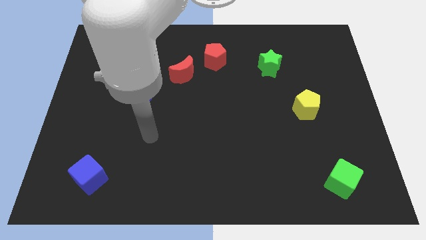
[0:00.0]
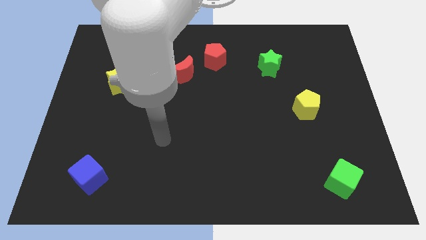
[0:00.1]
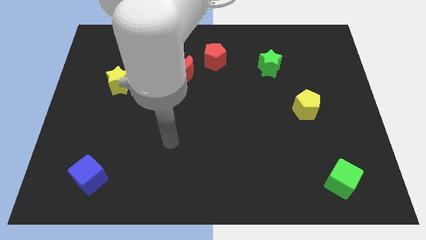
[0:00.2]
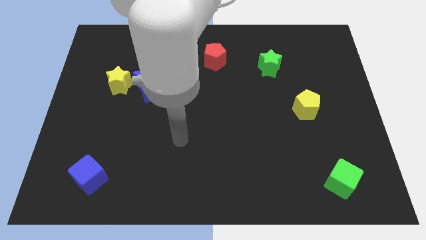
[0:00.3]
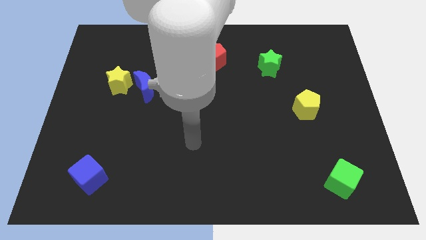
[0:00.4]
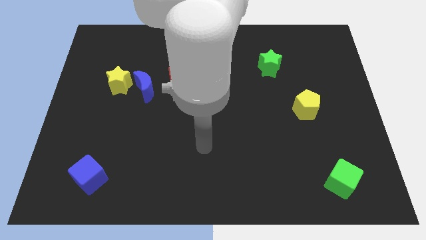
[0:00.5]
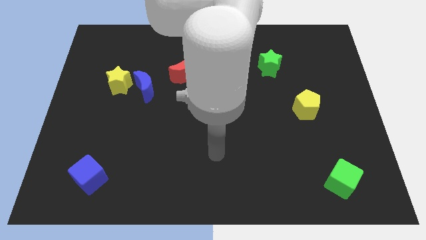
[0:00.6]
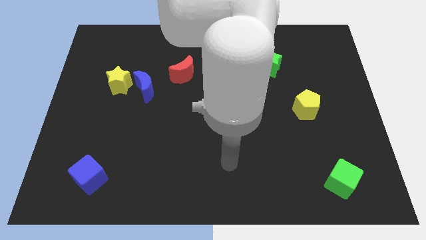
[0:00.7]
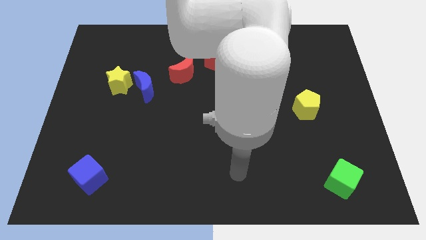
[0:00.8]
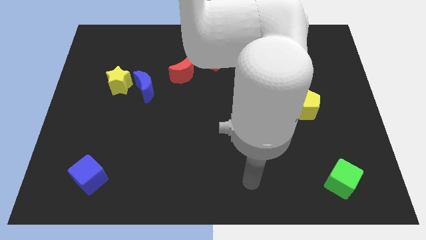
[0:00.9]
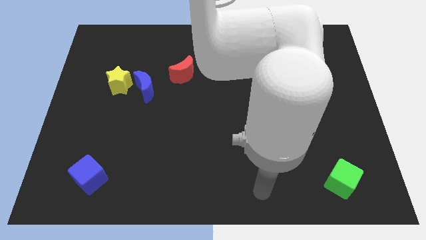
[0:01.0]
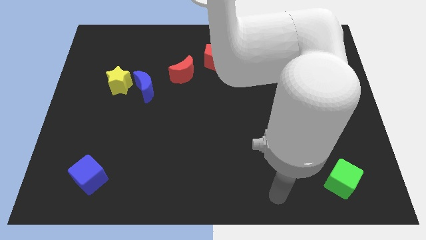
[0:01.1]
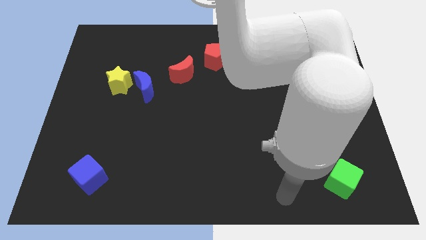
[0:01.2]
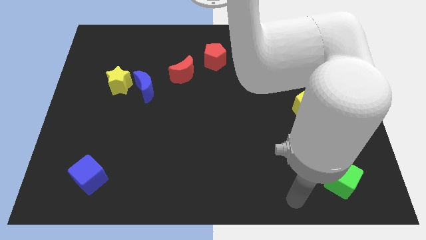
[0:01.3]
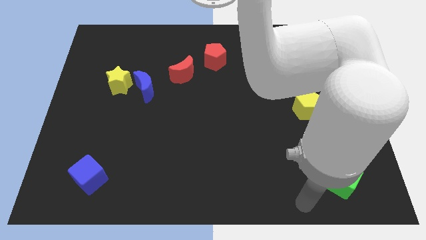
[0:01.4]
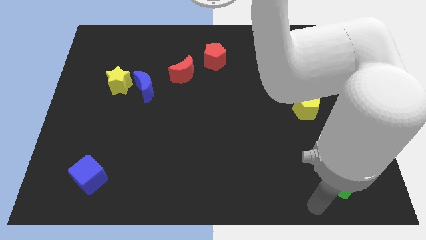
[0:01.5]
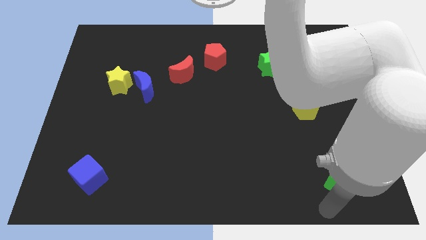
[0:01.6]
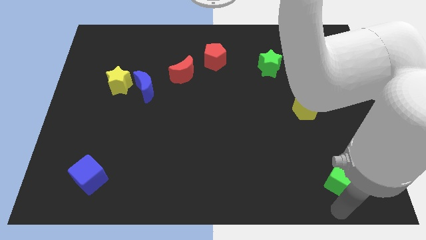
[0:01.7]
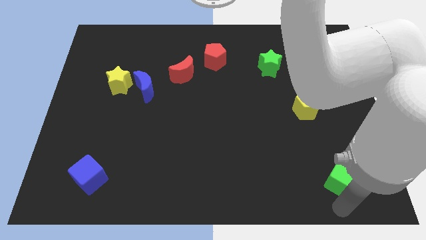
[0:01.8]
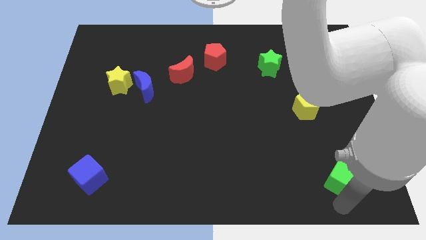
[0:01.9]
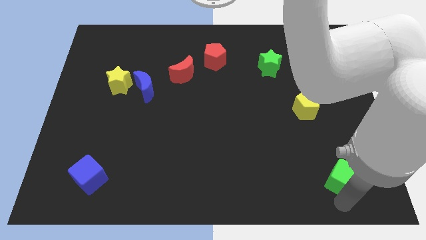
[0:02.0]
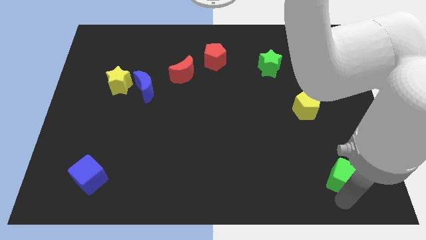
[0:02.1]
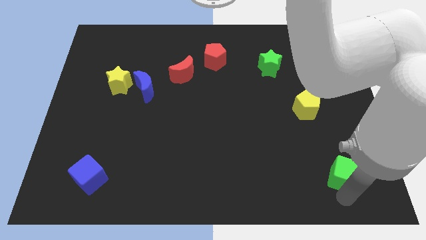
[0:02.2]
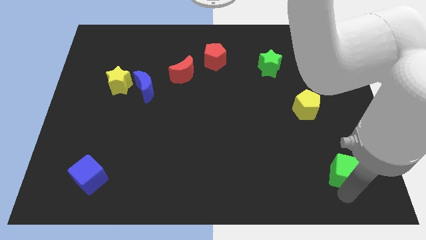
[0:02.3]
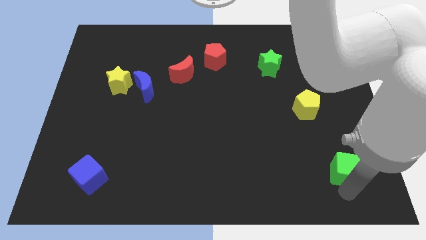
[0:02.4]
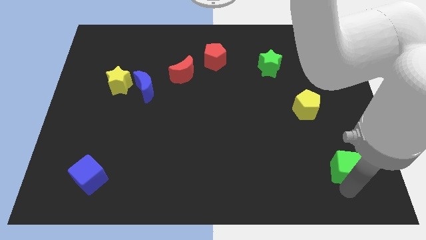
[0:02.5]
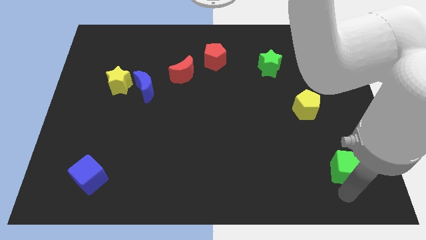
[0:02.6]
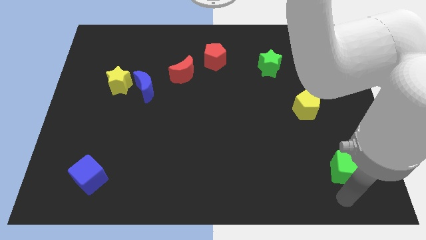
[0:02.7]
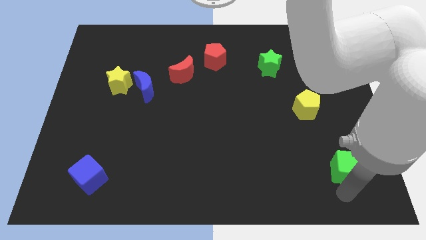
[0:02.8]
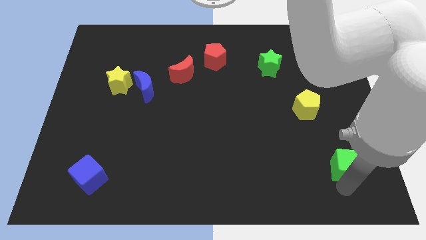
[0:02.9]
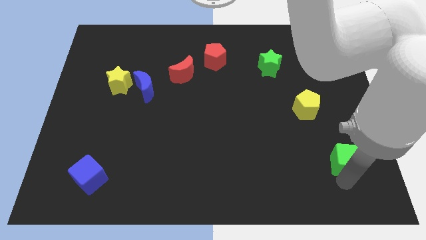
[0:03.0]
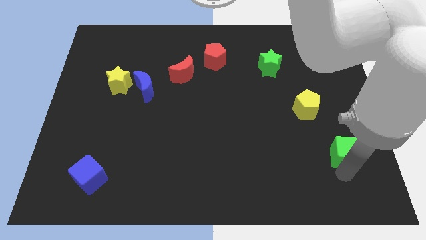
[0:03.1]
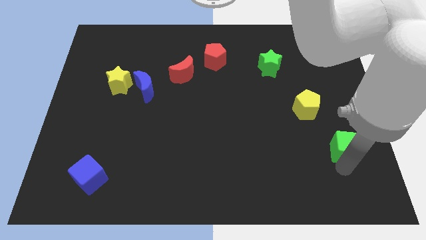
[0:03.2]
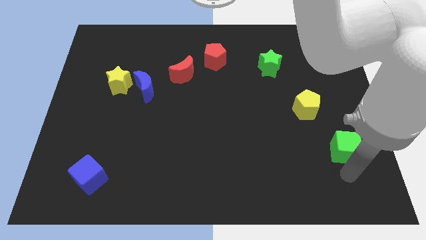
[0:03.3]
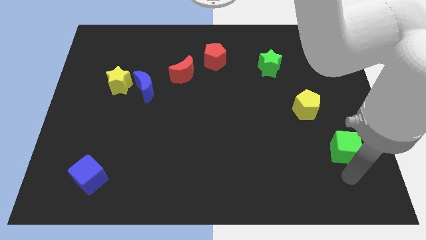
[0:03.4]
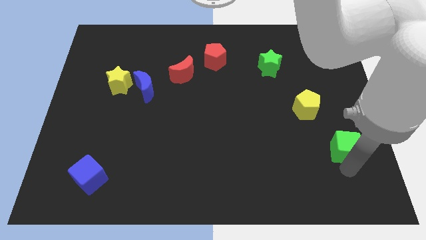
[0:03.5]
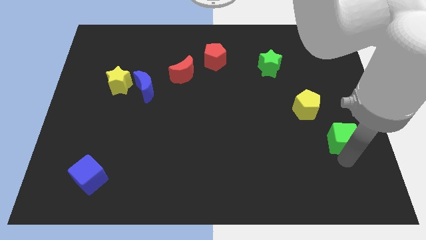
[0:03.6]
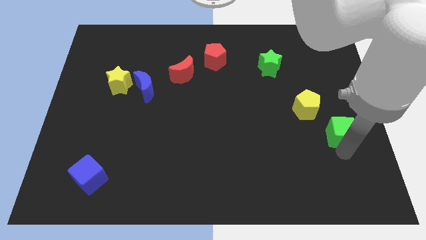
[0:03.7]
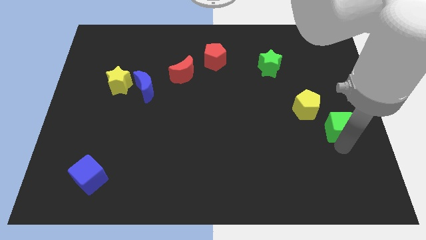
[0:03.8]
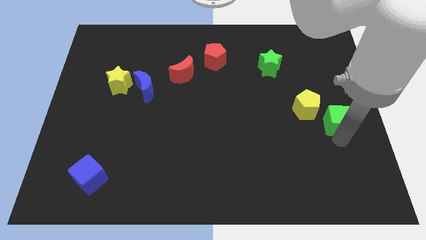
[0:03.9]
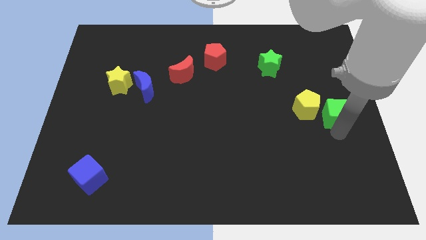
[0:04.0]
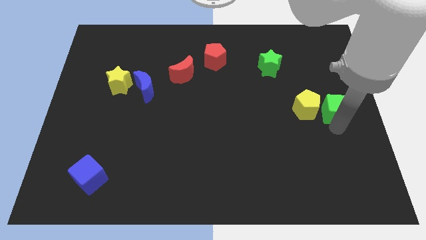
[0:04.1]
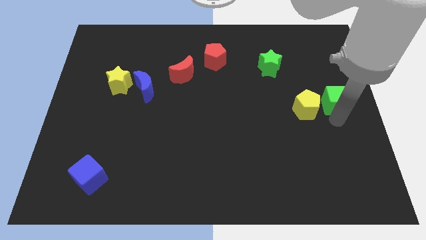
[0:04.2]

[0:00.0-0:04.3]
push the green cube up

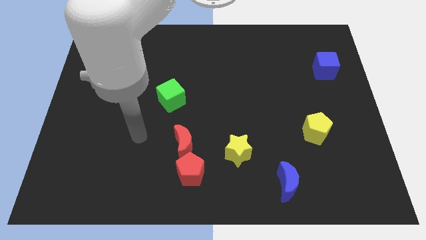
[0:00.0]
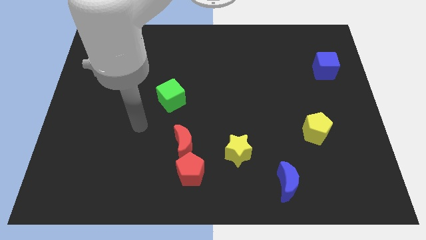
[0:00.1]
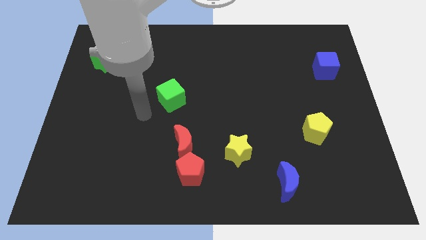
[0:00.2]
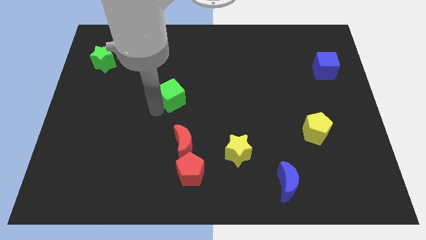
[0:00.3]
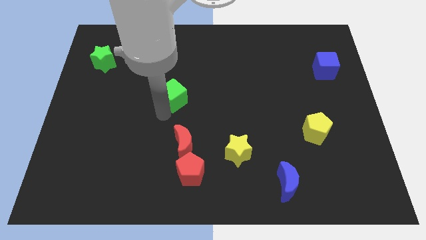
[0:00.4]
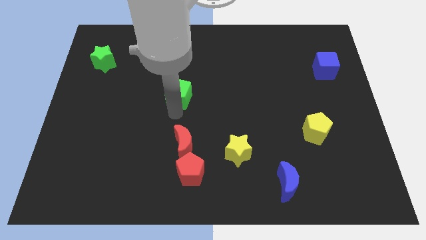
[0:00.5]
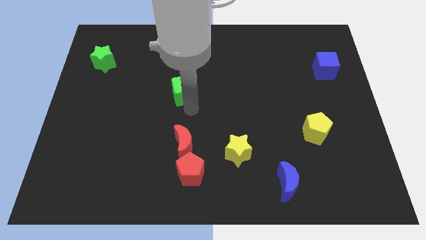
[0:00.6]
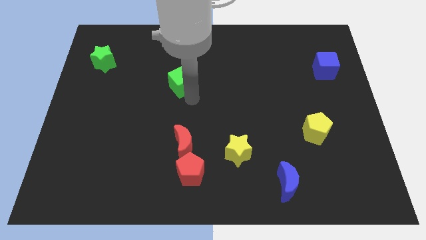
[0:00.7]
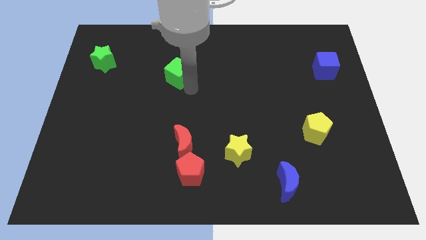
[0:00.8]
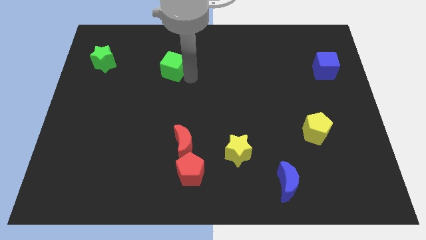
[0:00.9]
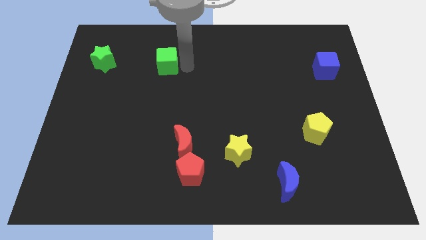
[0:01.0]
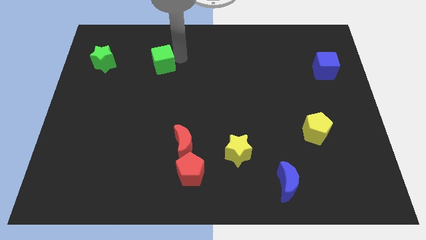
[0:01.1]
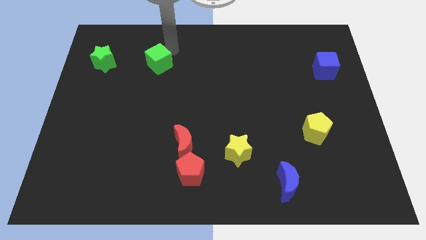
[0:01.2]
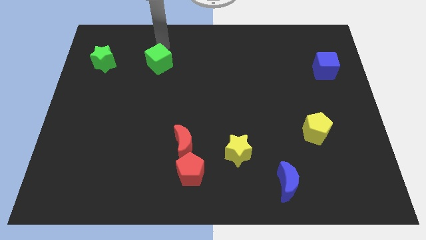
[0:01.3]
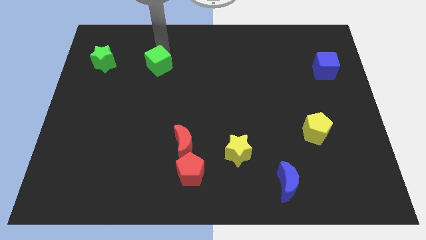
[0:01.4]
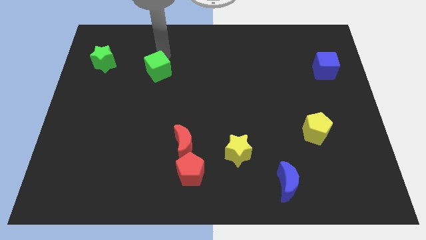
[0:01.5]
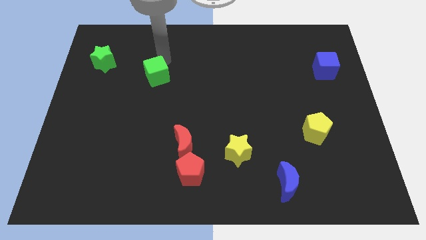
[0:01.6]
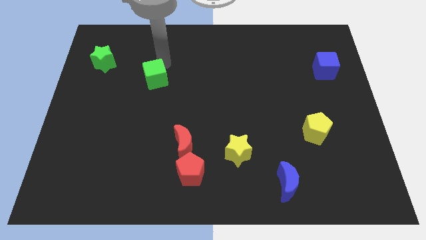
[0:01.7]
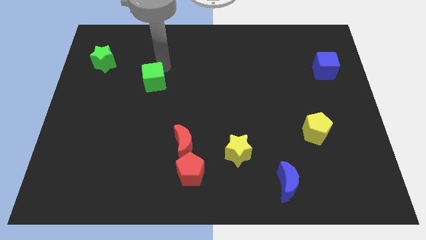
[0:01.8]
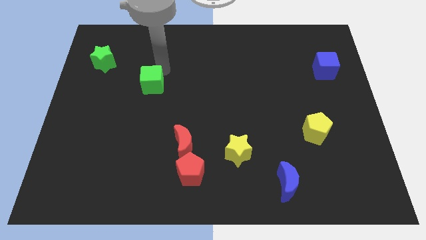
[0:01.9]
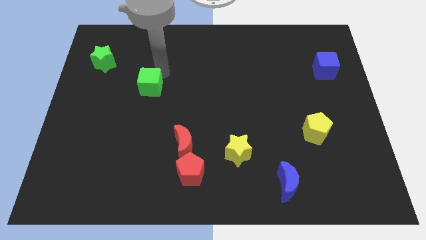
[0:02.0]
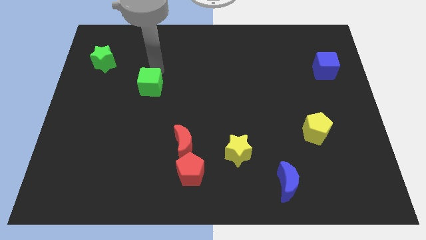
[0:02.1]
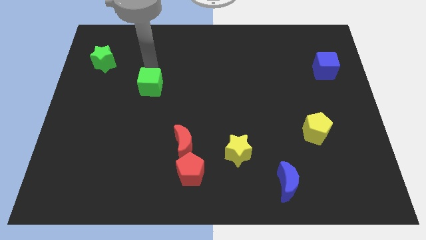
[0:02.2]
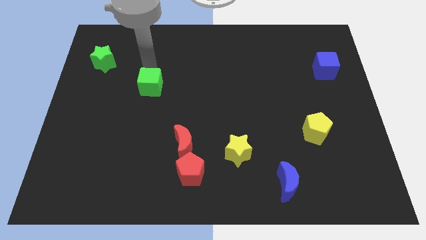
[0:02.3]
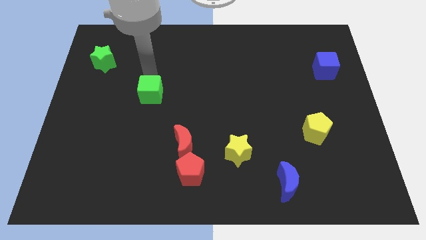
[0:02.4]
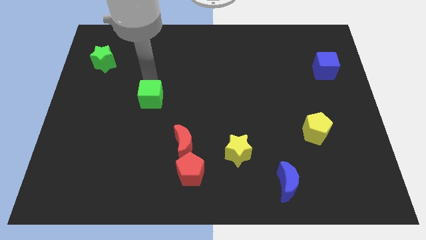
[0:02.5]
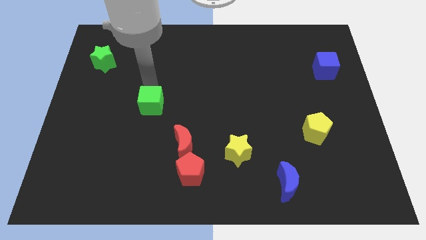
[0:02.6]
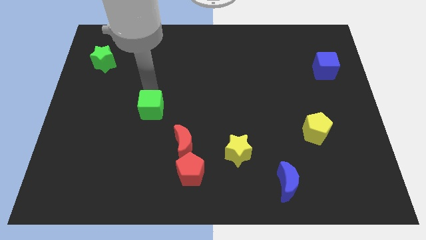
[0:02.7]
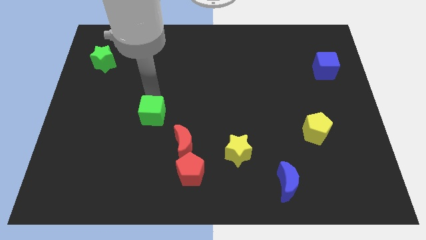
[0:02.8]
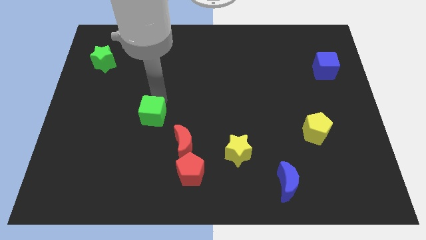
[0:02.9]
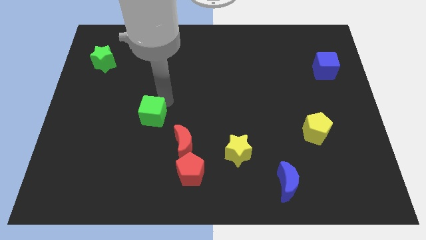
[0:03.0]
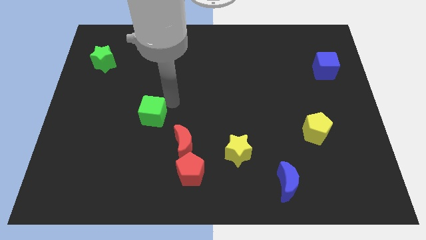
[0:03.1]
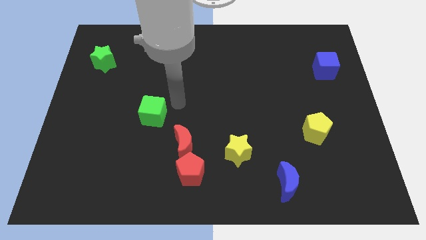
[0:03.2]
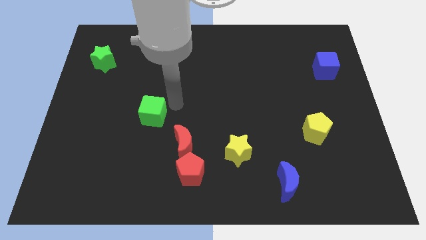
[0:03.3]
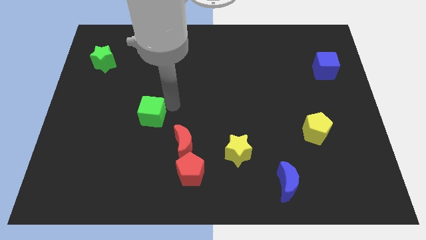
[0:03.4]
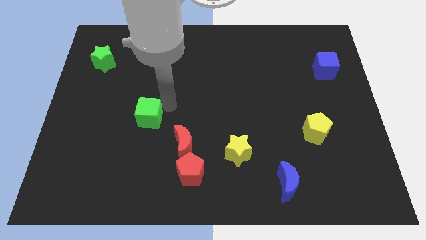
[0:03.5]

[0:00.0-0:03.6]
move the green cube downwards and left diagonally a little

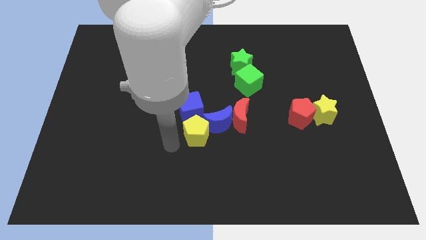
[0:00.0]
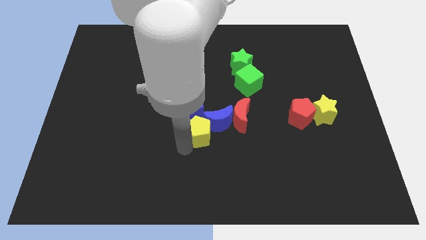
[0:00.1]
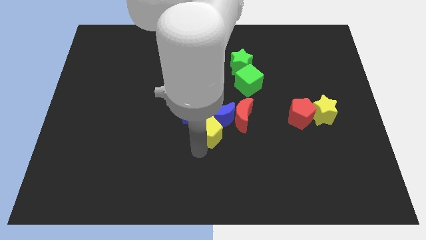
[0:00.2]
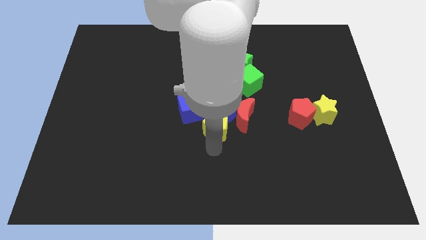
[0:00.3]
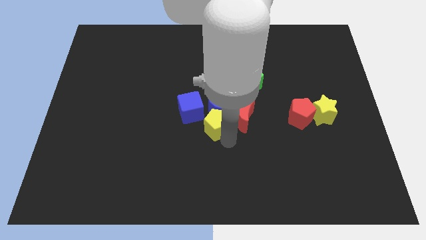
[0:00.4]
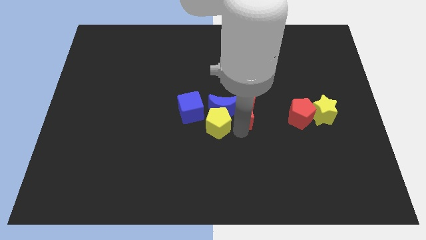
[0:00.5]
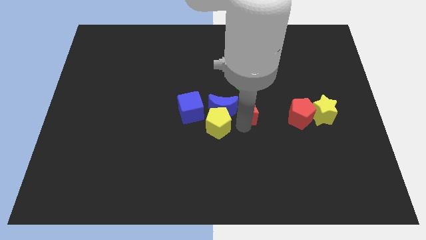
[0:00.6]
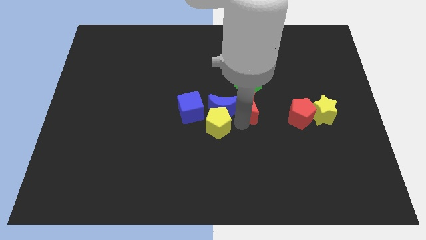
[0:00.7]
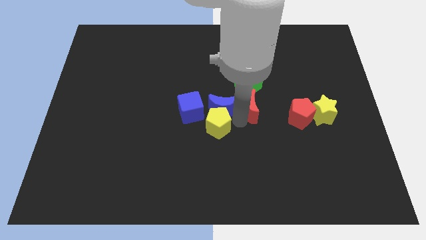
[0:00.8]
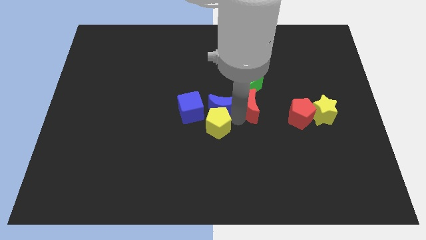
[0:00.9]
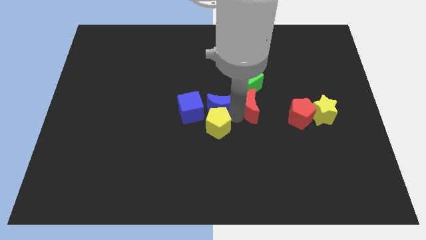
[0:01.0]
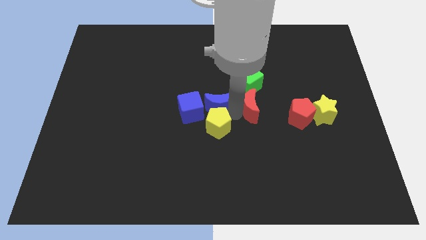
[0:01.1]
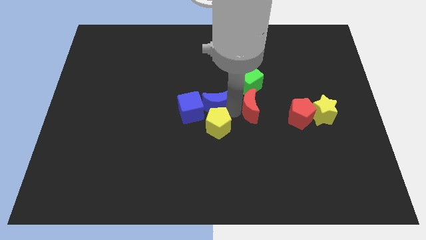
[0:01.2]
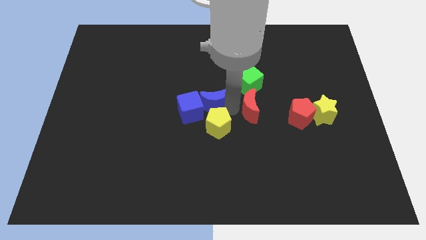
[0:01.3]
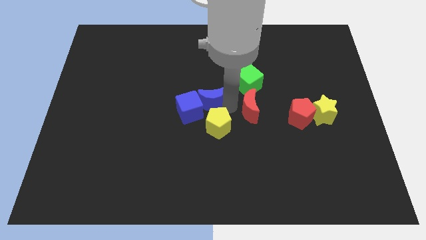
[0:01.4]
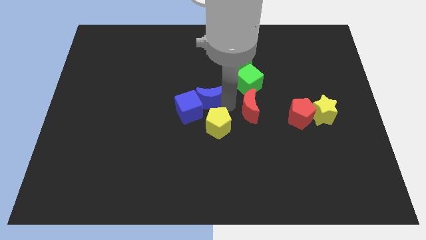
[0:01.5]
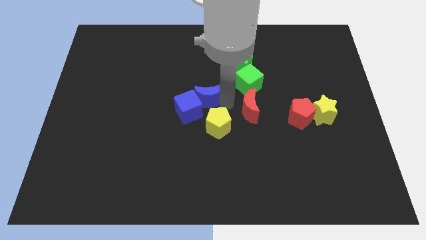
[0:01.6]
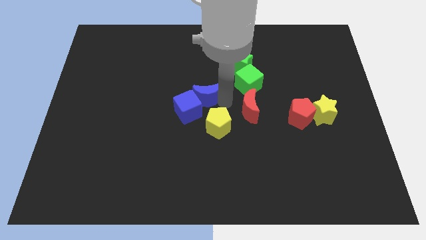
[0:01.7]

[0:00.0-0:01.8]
push the blue moon upwards and to the left diagonally a little
